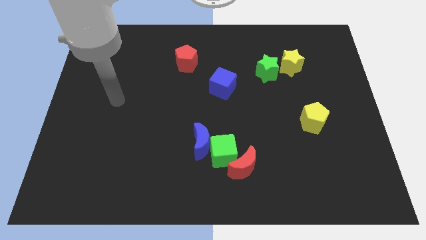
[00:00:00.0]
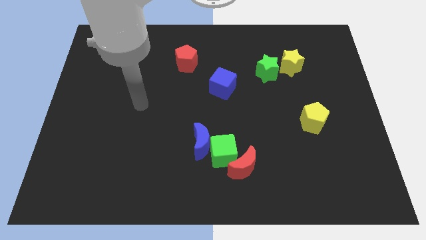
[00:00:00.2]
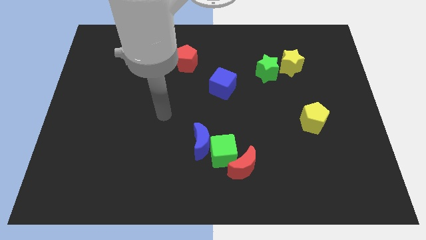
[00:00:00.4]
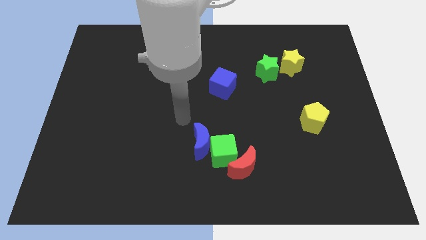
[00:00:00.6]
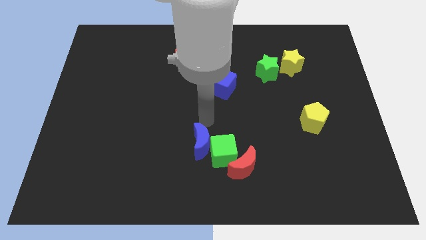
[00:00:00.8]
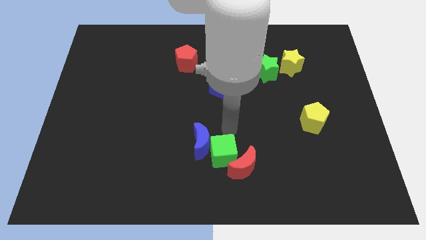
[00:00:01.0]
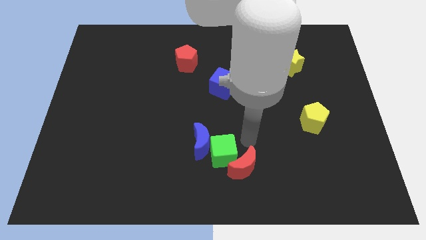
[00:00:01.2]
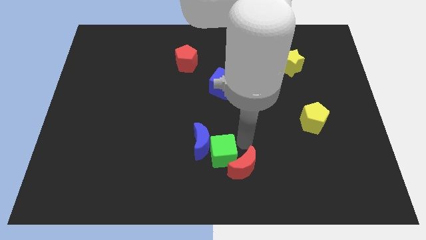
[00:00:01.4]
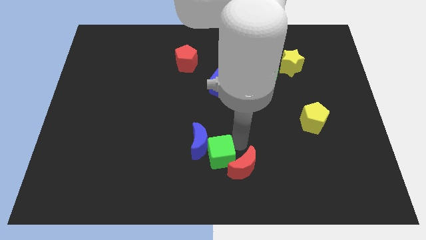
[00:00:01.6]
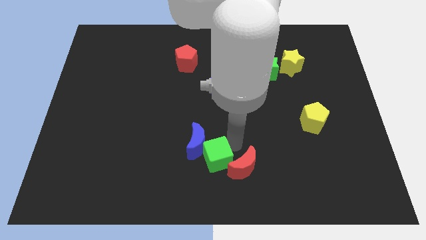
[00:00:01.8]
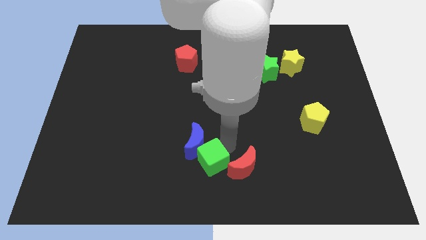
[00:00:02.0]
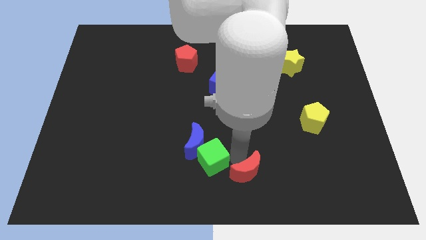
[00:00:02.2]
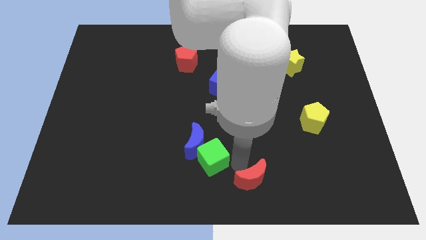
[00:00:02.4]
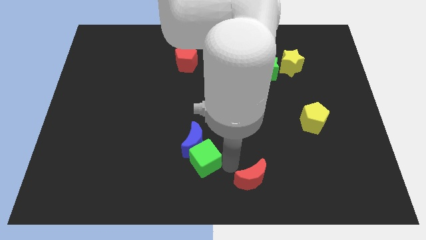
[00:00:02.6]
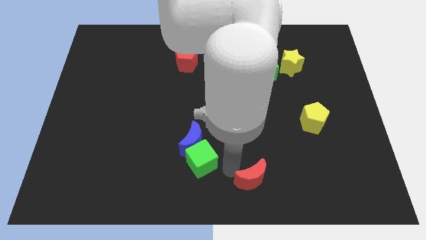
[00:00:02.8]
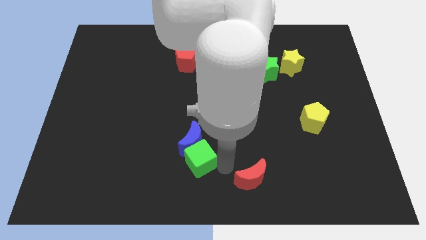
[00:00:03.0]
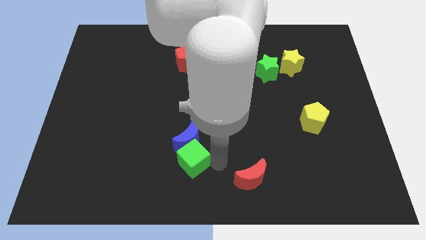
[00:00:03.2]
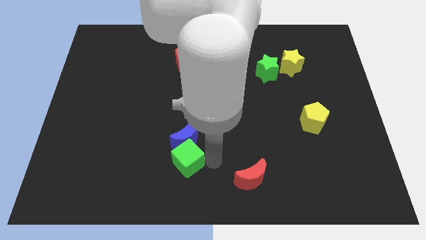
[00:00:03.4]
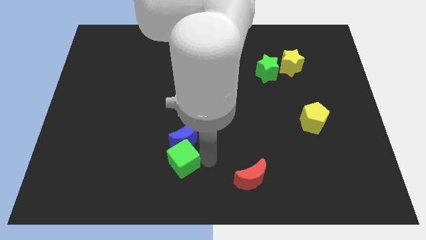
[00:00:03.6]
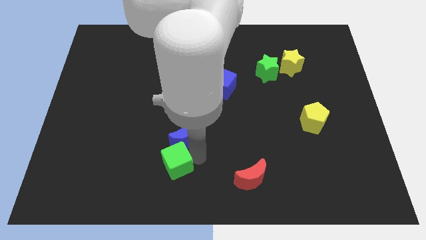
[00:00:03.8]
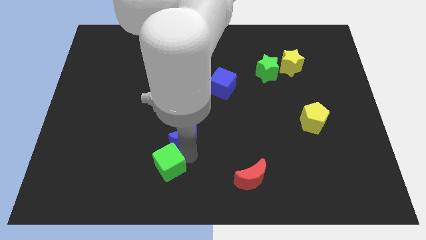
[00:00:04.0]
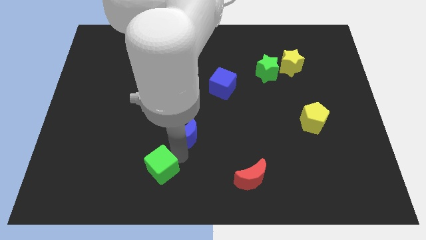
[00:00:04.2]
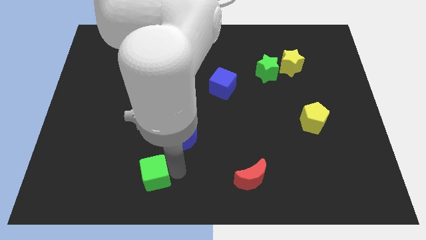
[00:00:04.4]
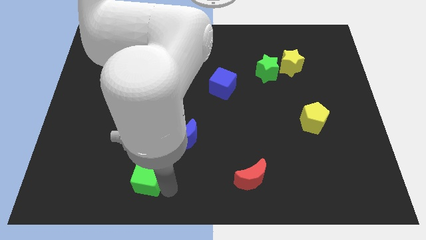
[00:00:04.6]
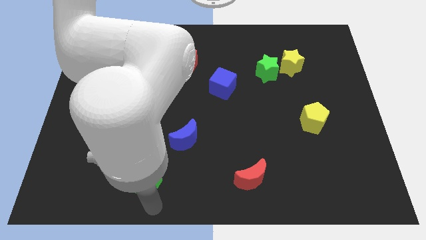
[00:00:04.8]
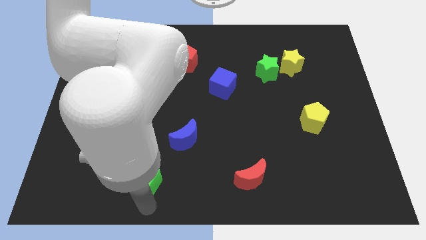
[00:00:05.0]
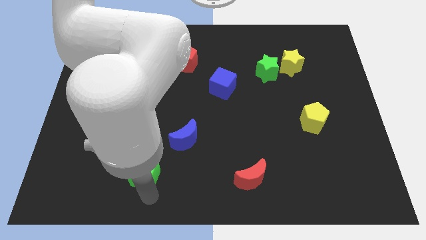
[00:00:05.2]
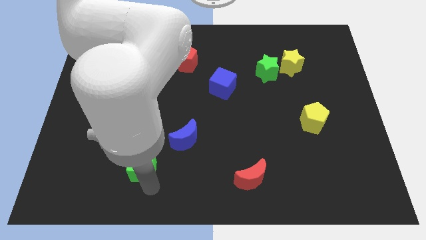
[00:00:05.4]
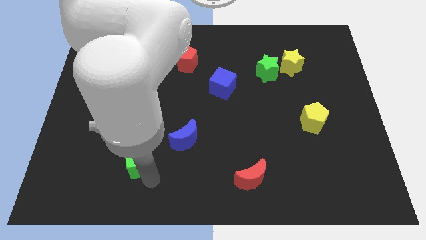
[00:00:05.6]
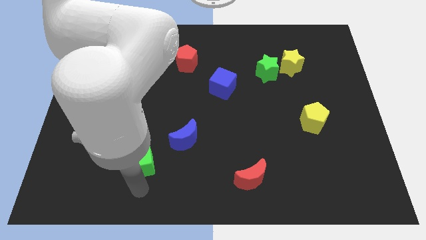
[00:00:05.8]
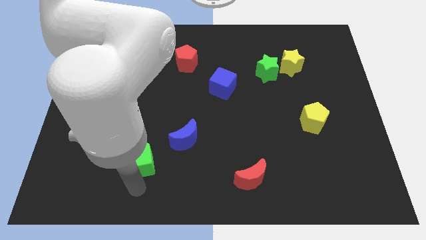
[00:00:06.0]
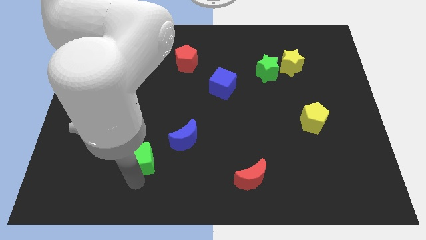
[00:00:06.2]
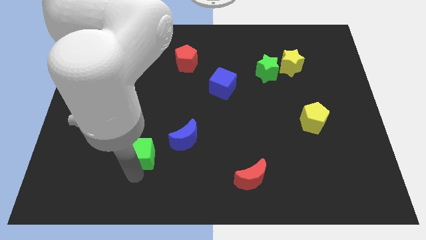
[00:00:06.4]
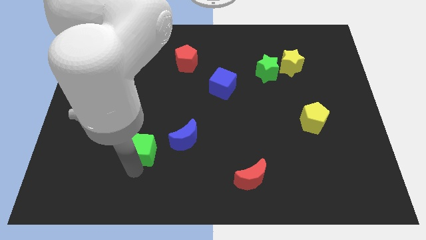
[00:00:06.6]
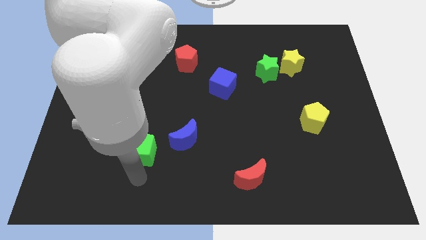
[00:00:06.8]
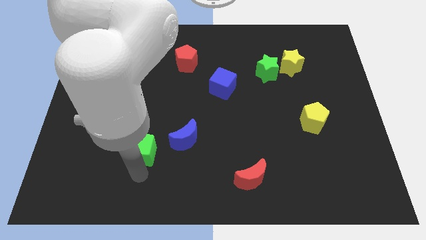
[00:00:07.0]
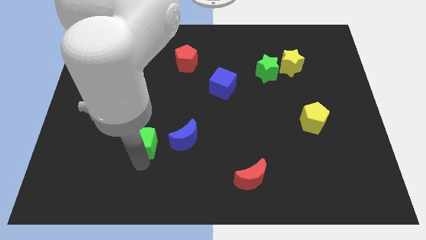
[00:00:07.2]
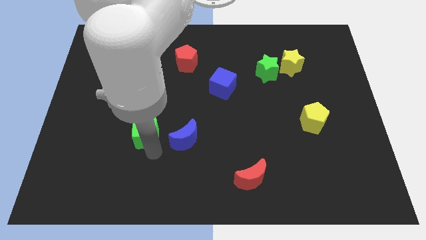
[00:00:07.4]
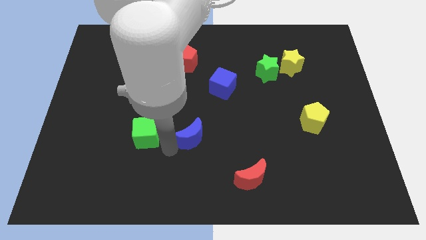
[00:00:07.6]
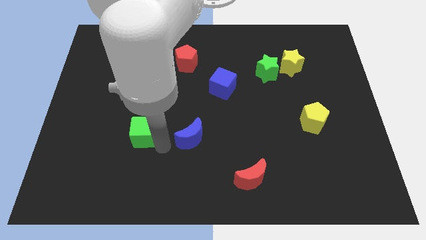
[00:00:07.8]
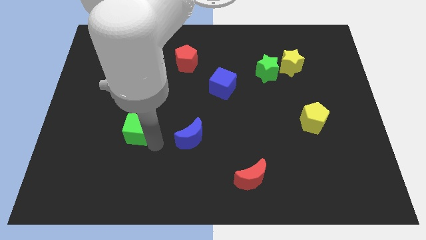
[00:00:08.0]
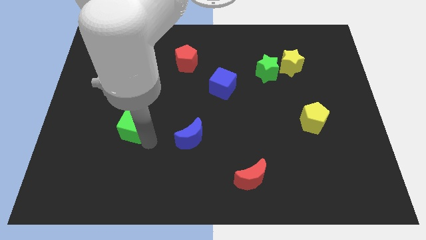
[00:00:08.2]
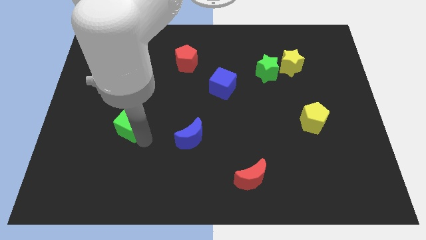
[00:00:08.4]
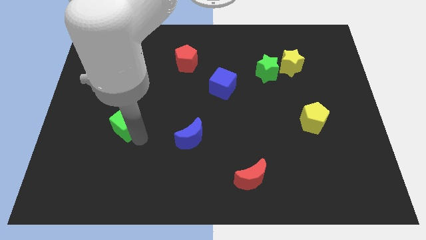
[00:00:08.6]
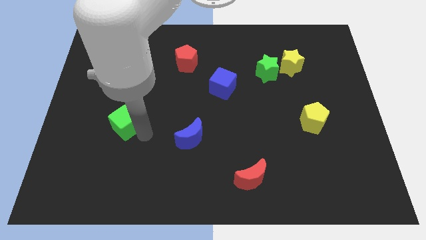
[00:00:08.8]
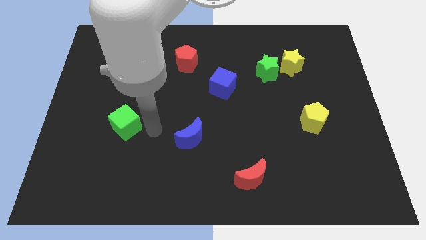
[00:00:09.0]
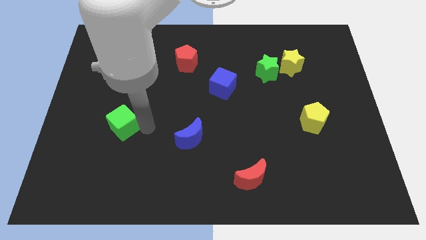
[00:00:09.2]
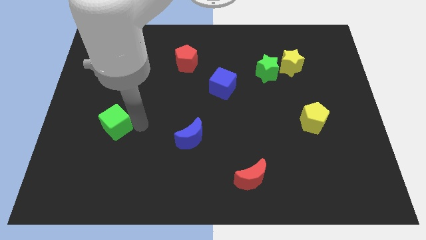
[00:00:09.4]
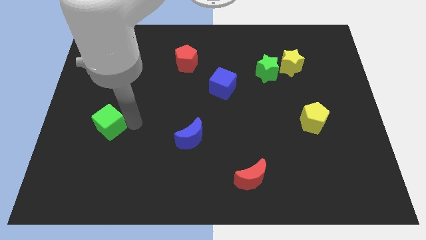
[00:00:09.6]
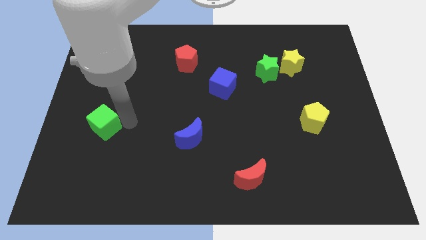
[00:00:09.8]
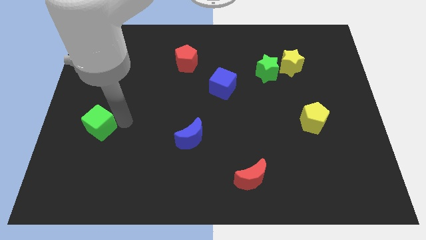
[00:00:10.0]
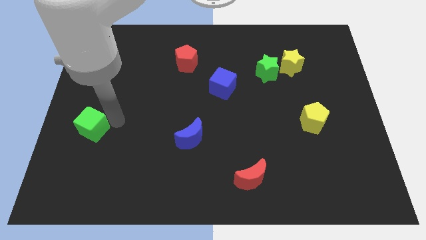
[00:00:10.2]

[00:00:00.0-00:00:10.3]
put the green cube to the center left

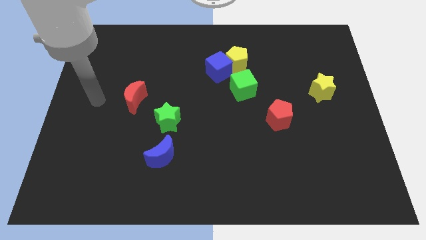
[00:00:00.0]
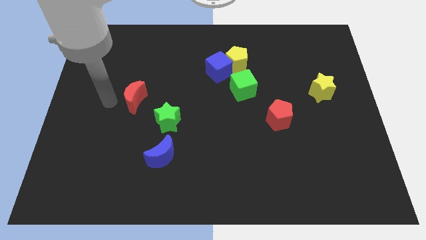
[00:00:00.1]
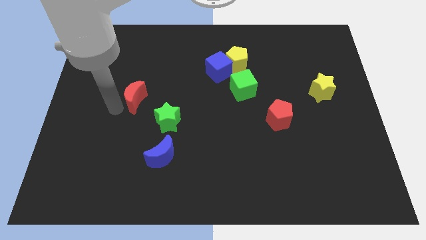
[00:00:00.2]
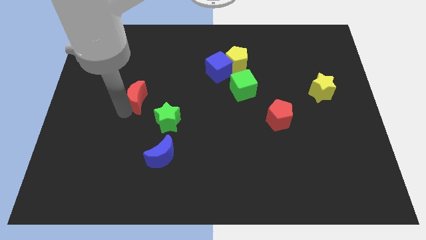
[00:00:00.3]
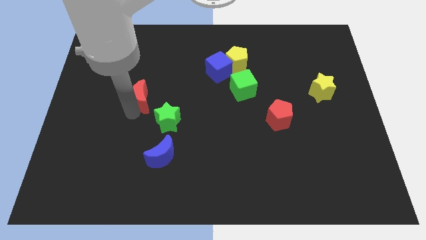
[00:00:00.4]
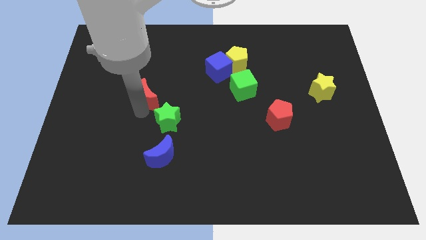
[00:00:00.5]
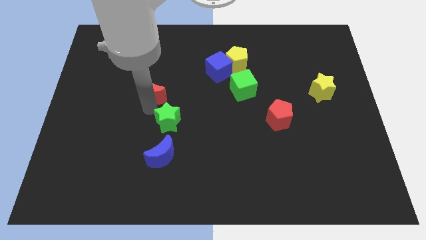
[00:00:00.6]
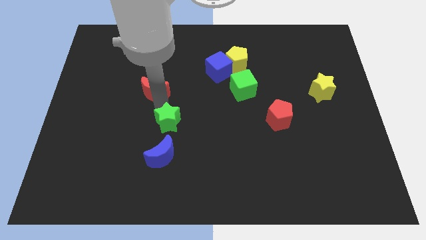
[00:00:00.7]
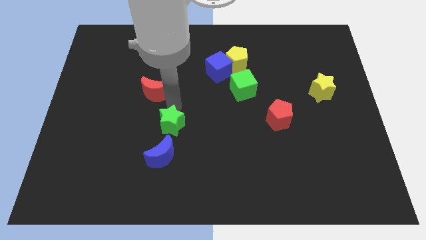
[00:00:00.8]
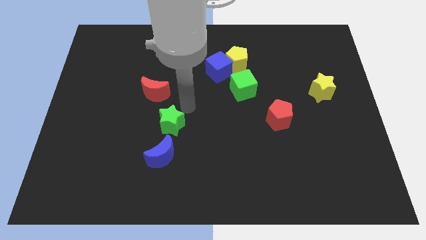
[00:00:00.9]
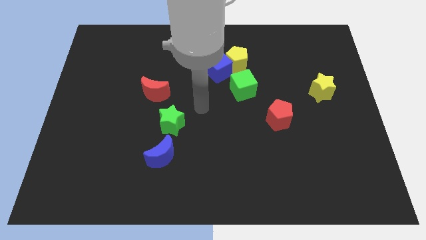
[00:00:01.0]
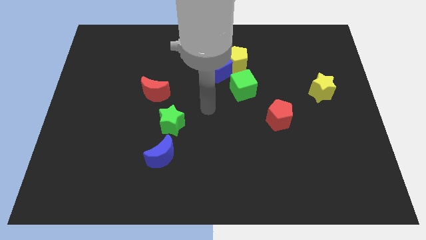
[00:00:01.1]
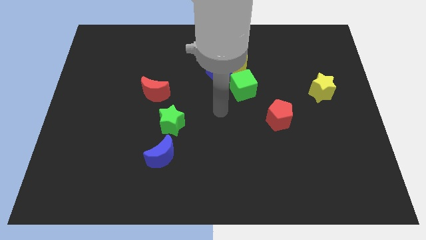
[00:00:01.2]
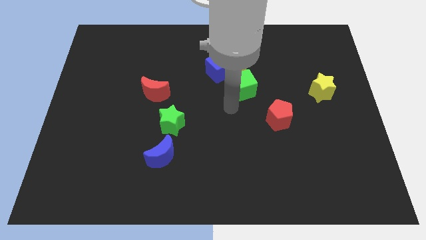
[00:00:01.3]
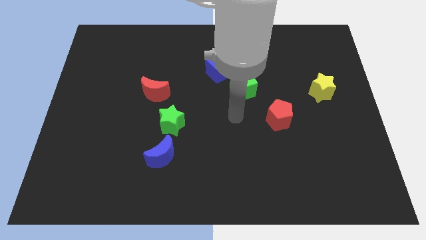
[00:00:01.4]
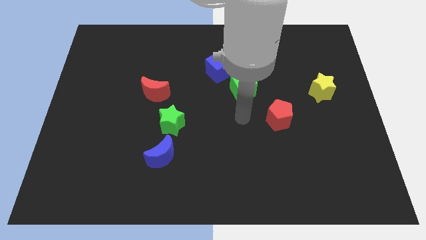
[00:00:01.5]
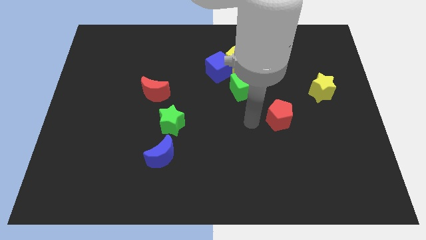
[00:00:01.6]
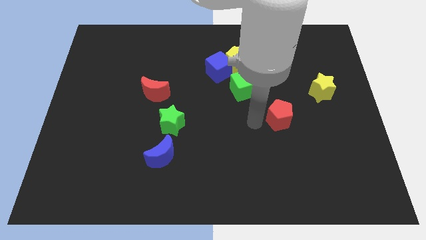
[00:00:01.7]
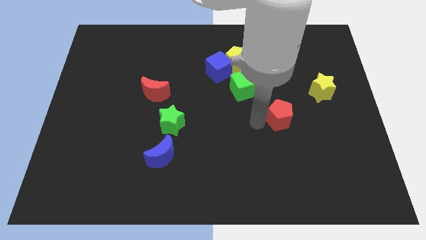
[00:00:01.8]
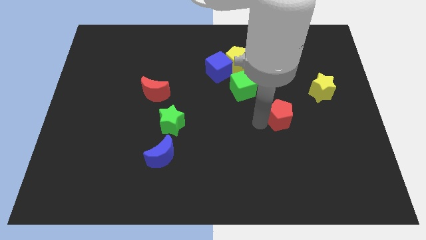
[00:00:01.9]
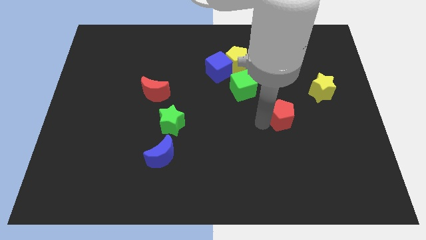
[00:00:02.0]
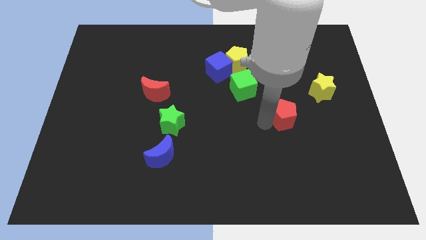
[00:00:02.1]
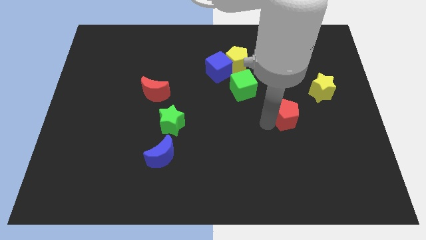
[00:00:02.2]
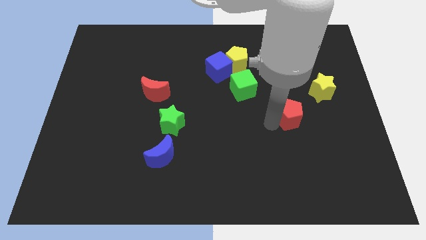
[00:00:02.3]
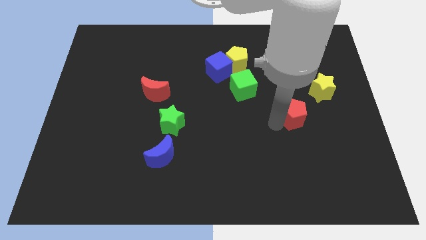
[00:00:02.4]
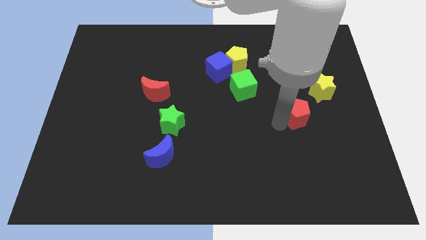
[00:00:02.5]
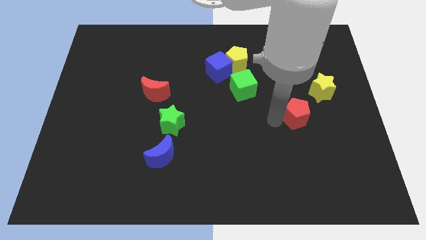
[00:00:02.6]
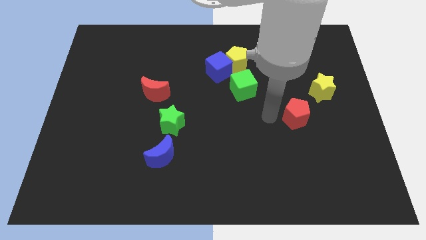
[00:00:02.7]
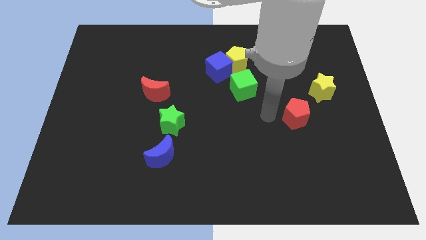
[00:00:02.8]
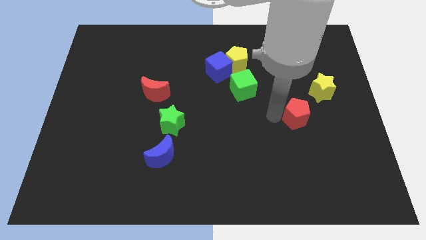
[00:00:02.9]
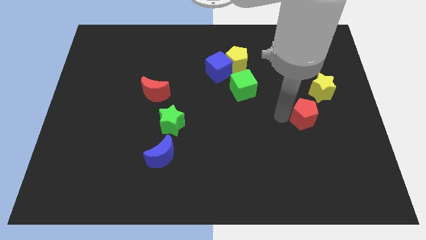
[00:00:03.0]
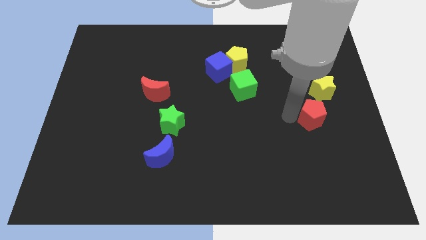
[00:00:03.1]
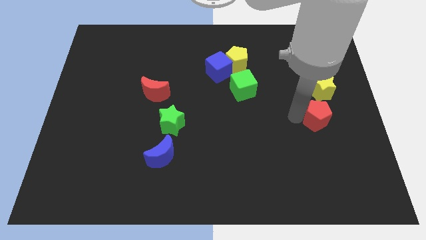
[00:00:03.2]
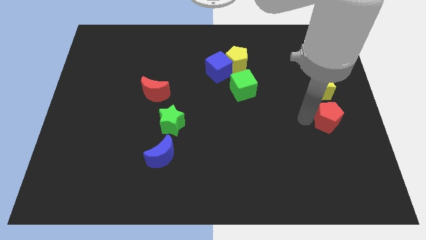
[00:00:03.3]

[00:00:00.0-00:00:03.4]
slide the red pentagon to the center right
